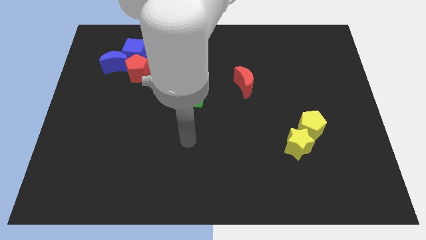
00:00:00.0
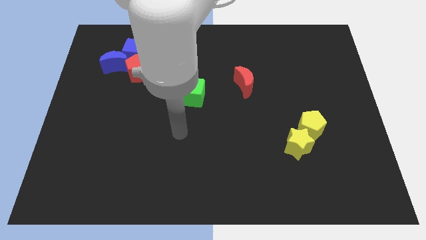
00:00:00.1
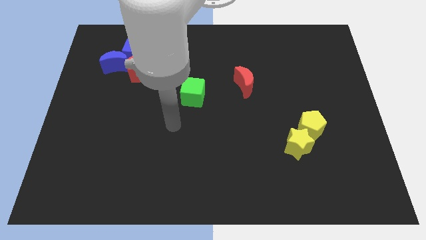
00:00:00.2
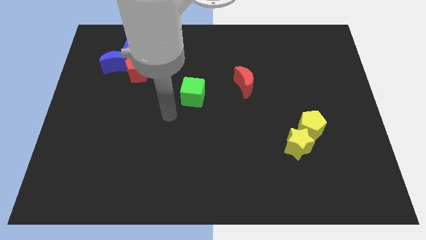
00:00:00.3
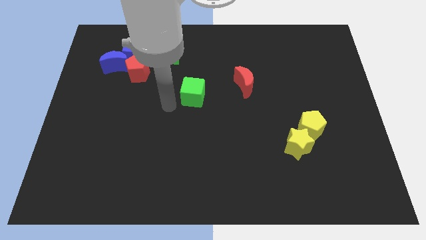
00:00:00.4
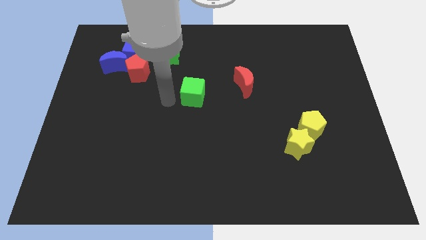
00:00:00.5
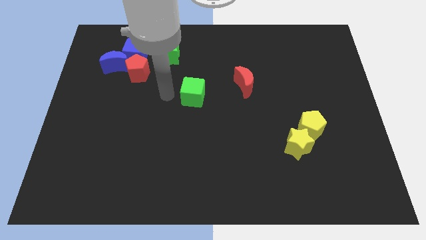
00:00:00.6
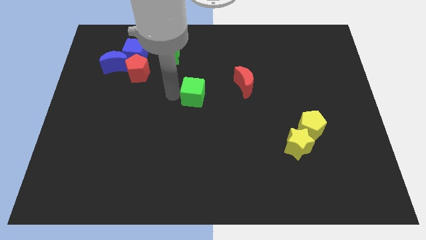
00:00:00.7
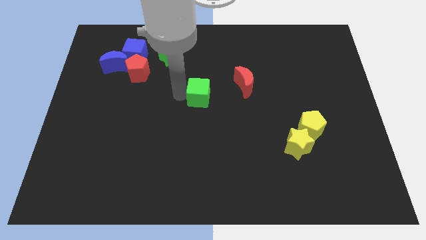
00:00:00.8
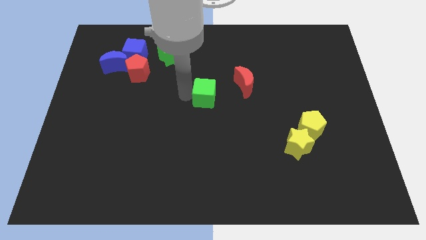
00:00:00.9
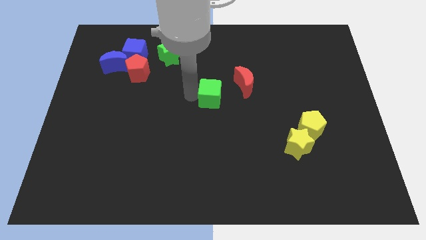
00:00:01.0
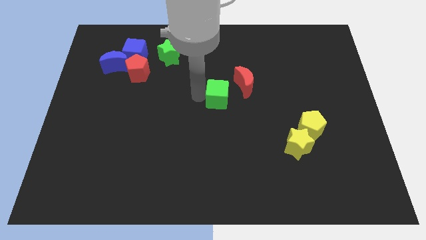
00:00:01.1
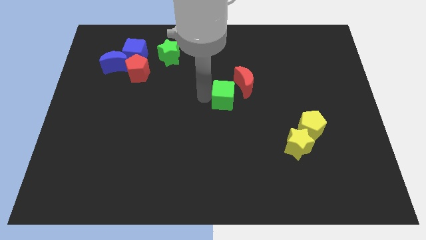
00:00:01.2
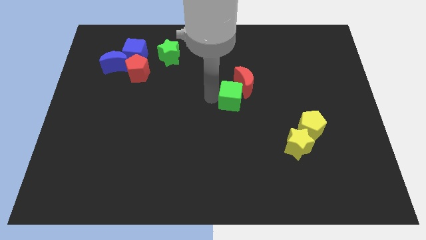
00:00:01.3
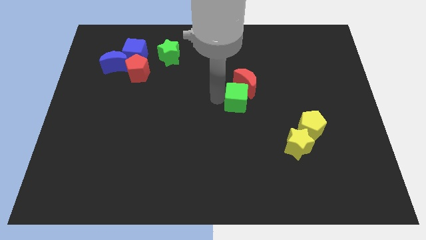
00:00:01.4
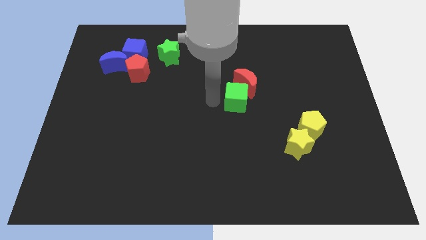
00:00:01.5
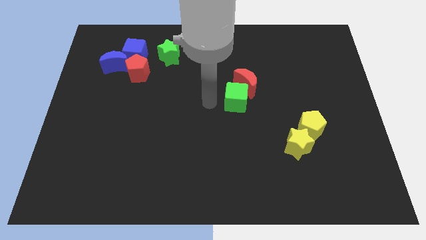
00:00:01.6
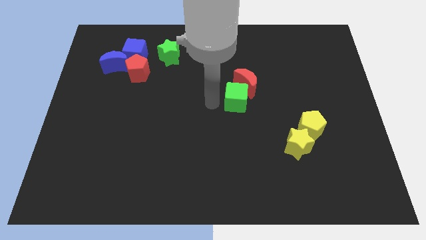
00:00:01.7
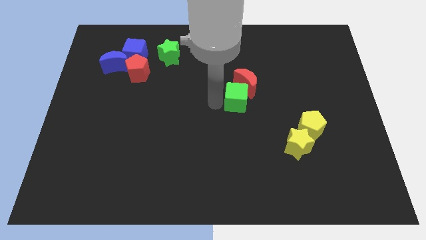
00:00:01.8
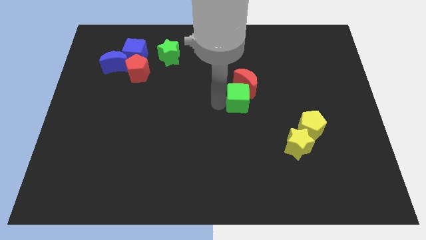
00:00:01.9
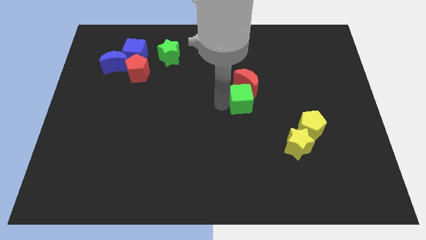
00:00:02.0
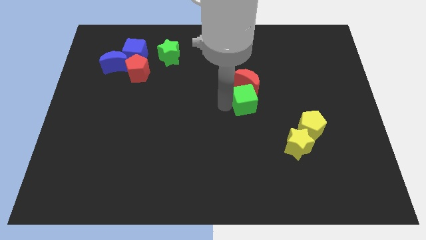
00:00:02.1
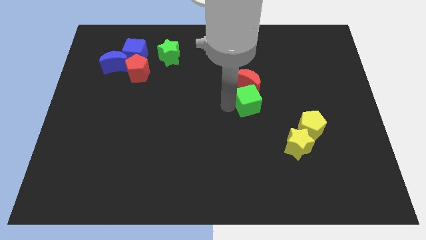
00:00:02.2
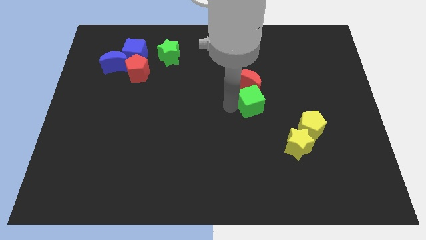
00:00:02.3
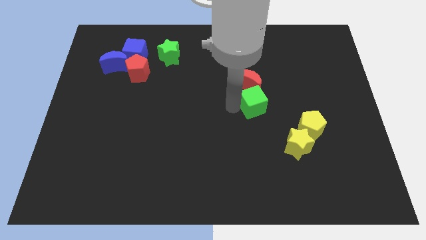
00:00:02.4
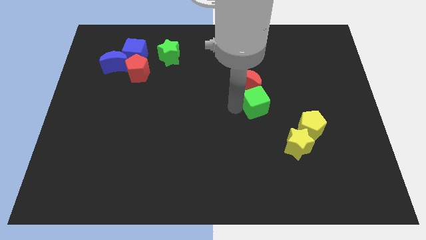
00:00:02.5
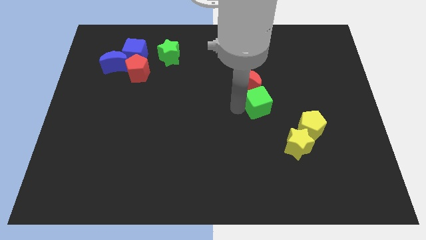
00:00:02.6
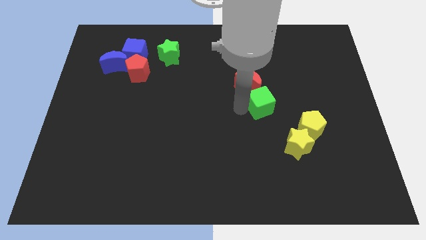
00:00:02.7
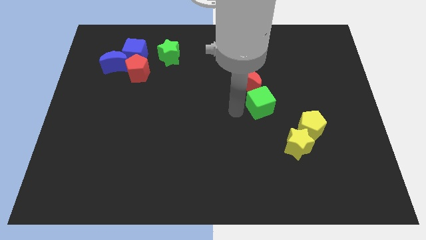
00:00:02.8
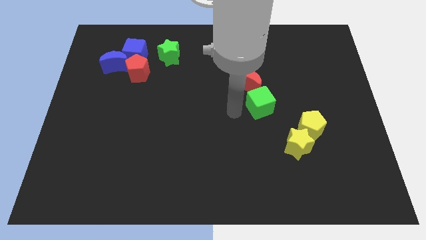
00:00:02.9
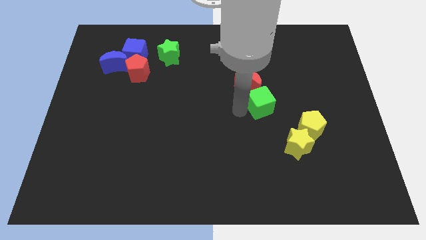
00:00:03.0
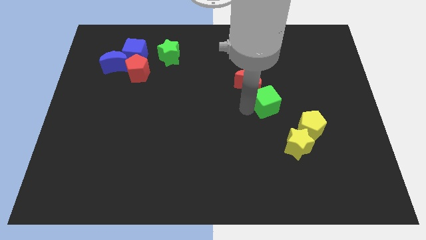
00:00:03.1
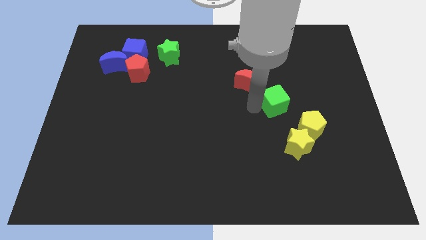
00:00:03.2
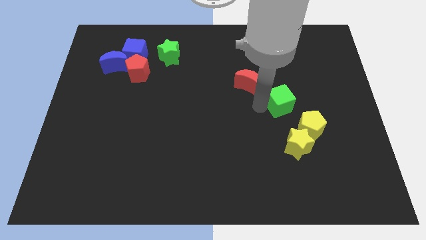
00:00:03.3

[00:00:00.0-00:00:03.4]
push the green cube to the right

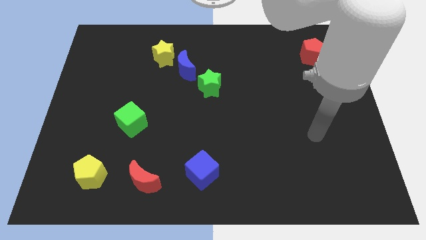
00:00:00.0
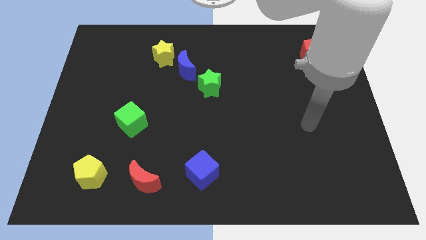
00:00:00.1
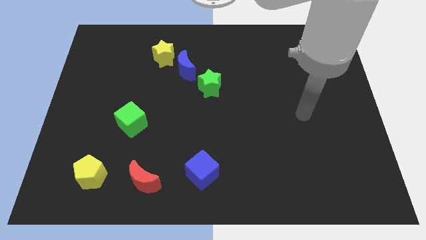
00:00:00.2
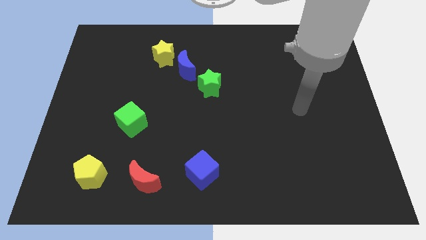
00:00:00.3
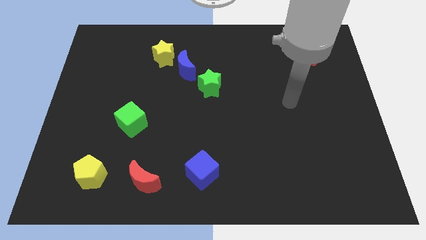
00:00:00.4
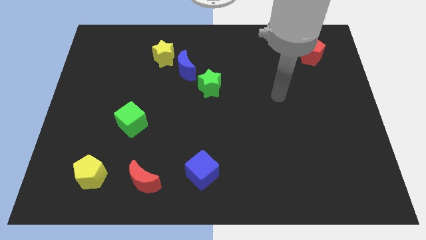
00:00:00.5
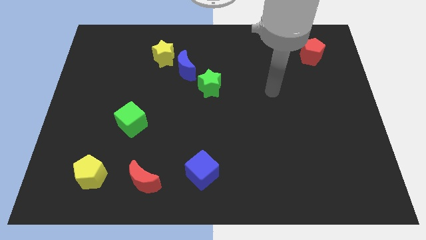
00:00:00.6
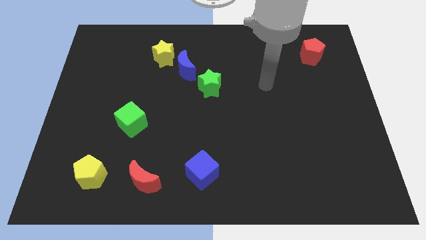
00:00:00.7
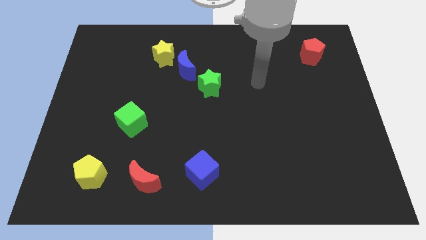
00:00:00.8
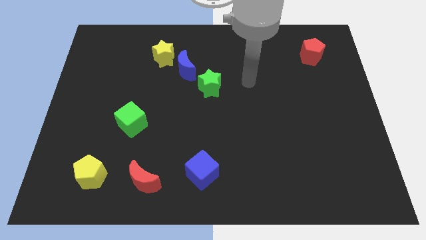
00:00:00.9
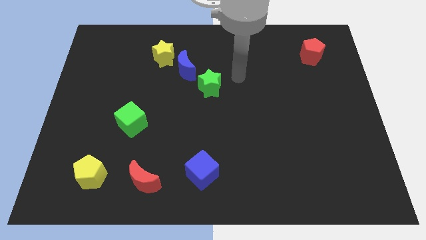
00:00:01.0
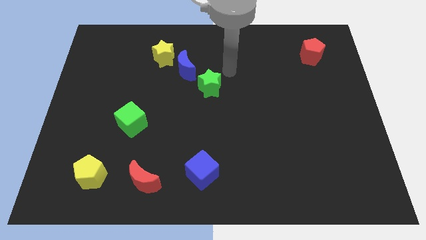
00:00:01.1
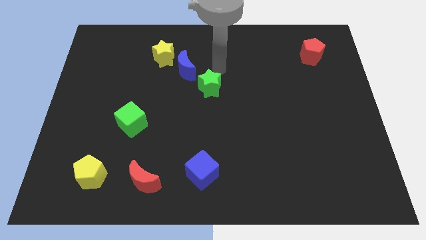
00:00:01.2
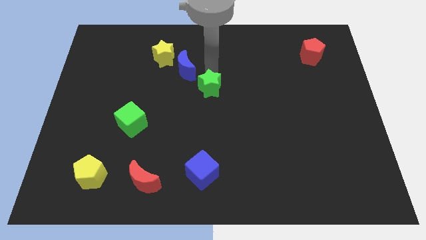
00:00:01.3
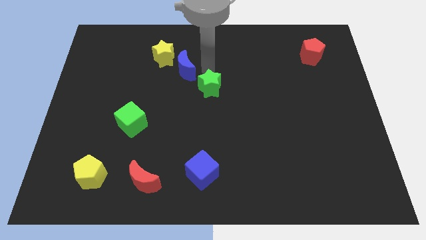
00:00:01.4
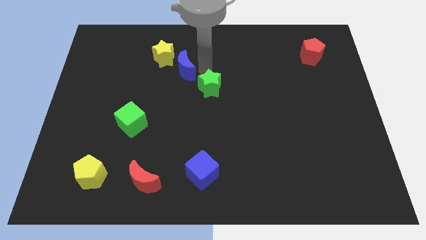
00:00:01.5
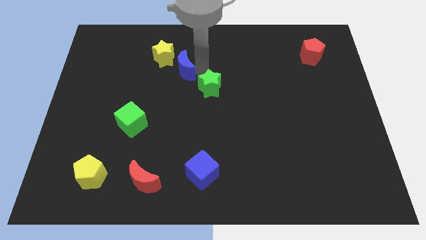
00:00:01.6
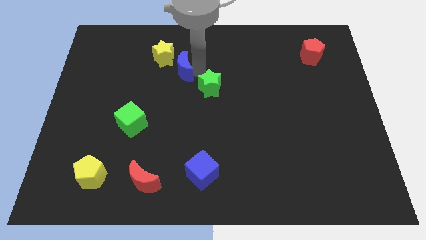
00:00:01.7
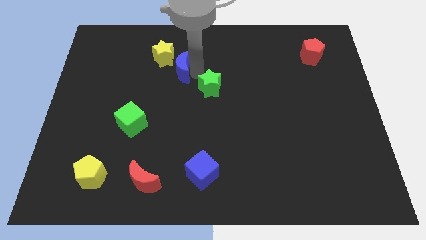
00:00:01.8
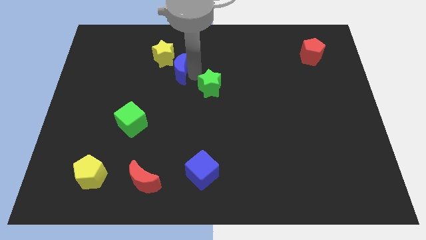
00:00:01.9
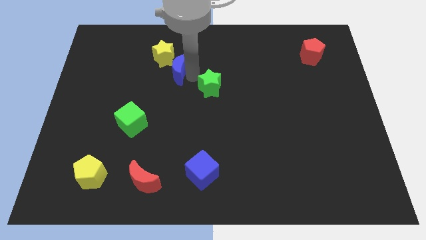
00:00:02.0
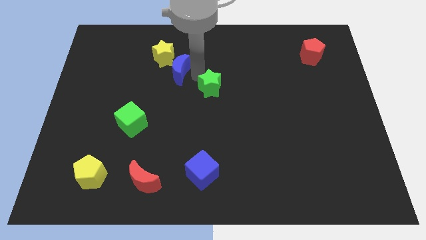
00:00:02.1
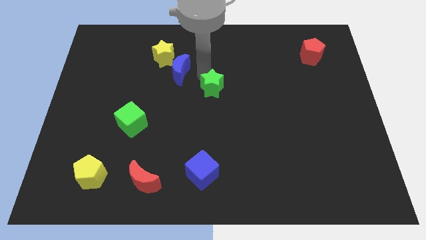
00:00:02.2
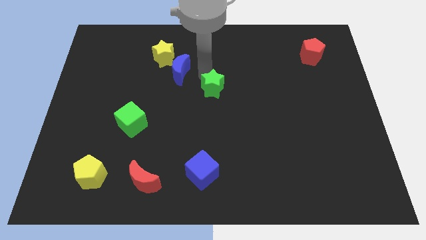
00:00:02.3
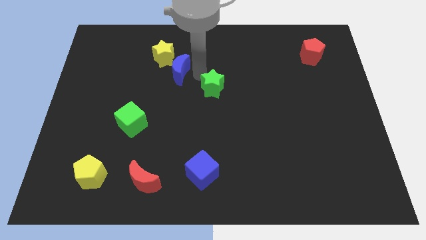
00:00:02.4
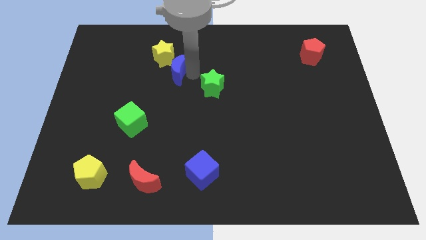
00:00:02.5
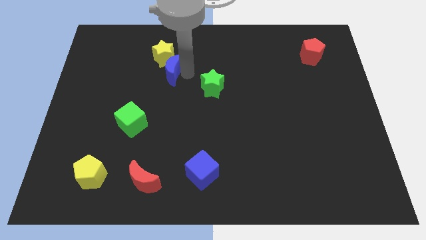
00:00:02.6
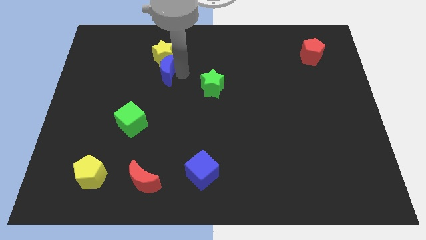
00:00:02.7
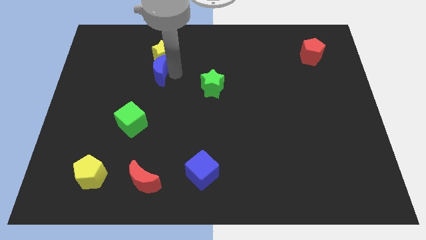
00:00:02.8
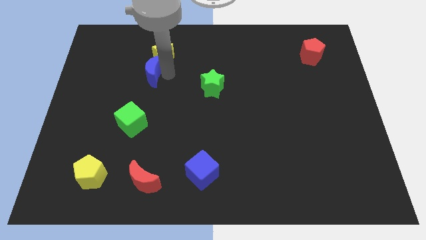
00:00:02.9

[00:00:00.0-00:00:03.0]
move the blue moon left a little

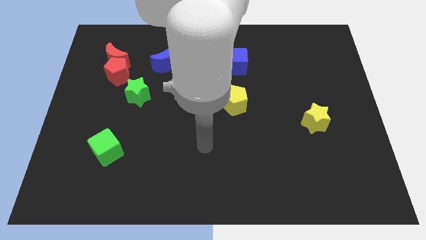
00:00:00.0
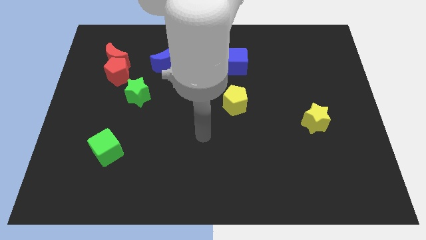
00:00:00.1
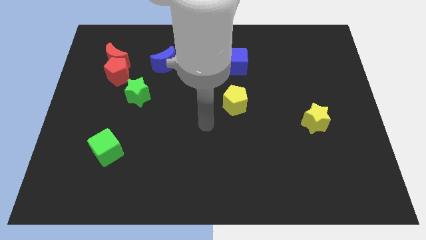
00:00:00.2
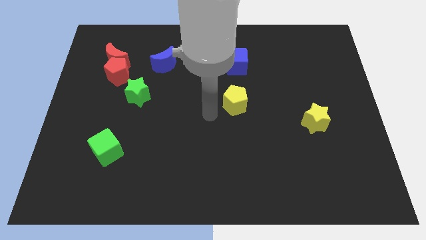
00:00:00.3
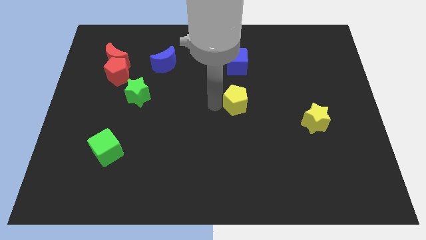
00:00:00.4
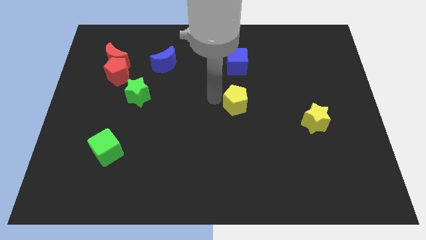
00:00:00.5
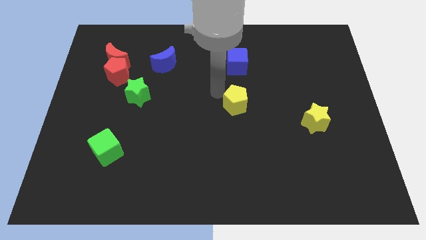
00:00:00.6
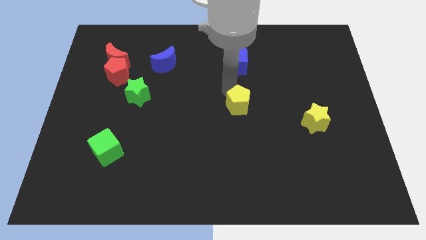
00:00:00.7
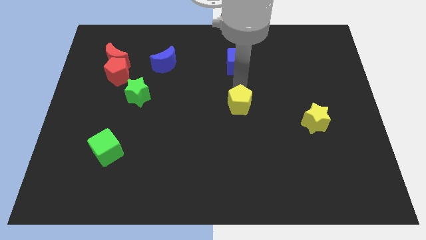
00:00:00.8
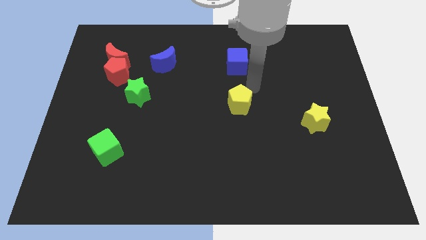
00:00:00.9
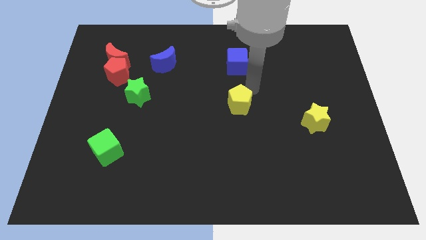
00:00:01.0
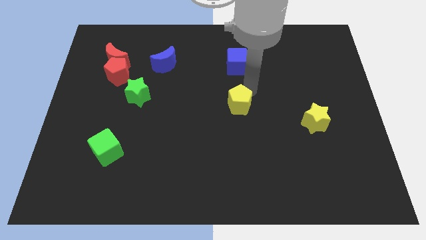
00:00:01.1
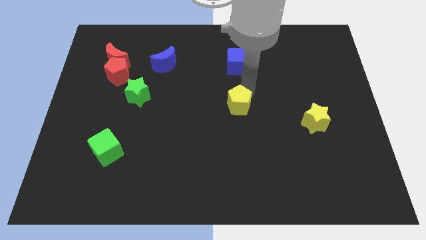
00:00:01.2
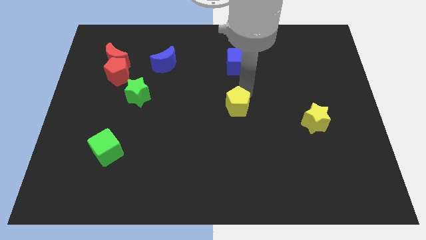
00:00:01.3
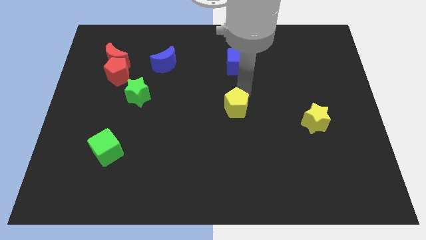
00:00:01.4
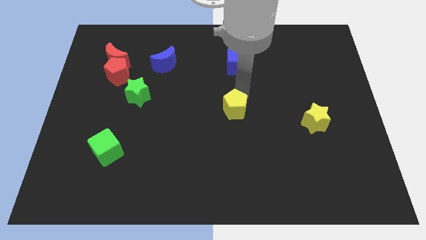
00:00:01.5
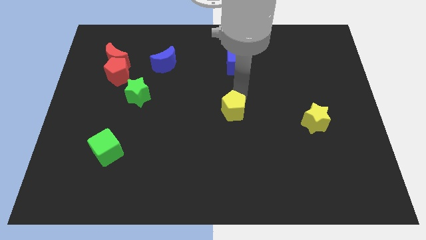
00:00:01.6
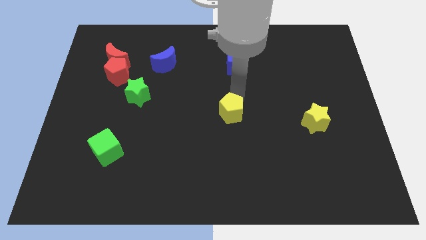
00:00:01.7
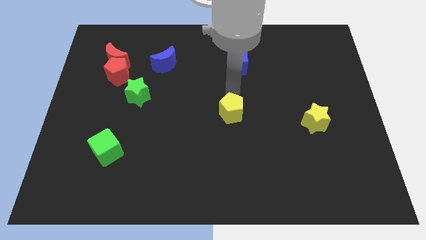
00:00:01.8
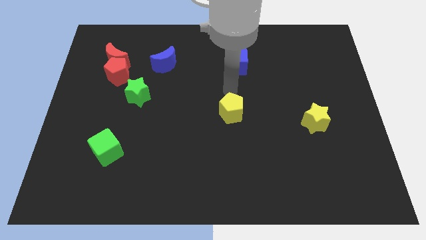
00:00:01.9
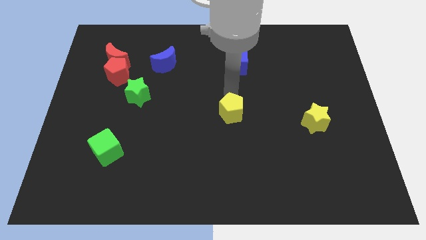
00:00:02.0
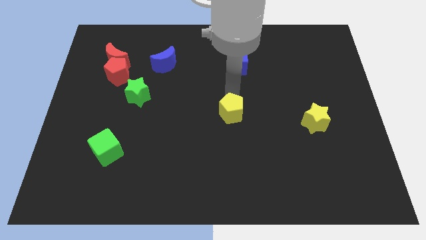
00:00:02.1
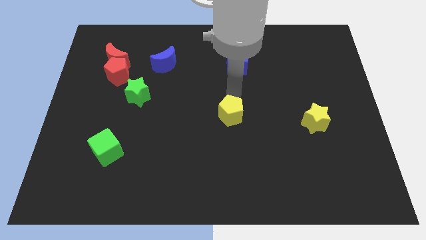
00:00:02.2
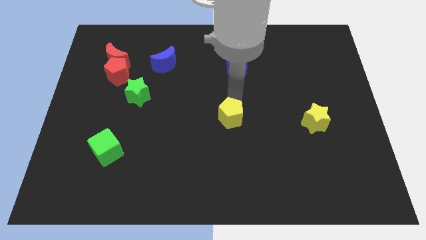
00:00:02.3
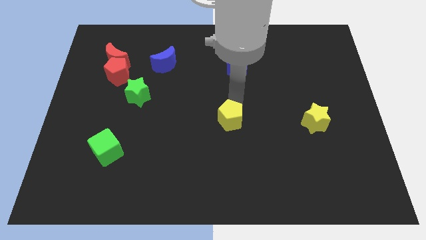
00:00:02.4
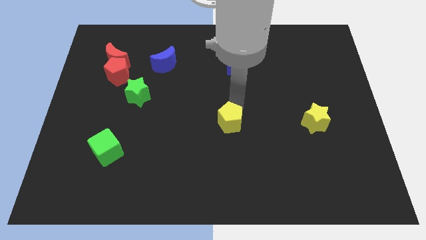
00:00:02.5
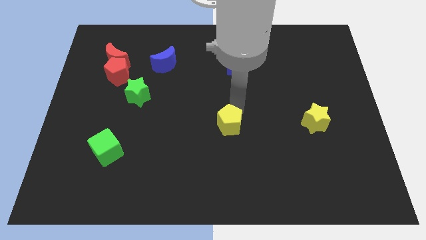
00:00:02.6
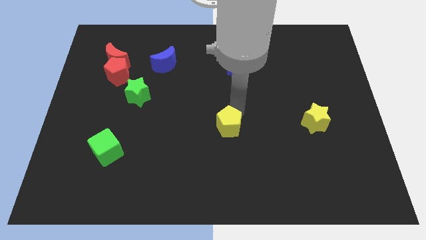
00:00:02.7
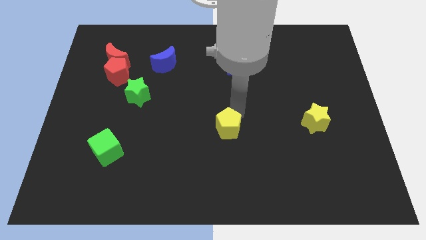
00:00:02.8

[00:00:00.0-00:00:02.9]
slide the yellow pentagon down a little bit
